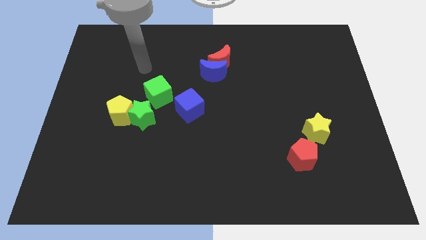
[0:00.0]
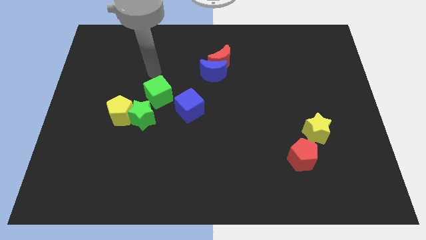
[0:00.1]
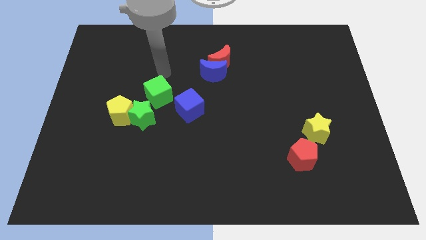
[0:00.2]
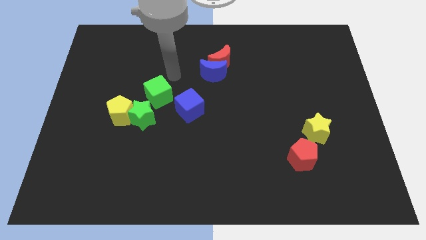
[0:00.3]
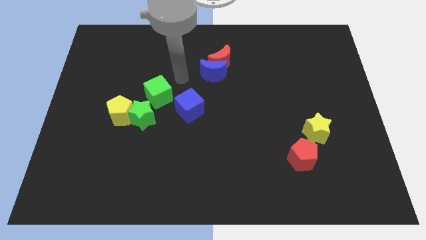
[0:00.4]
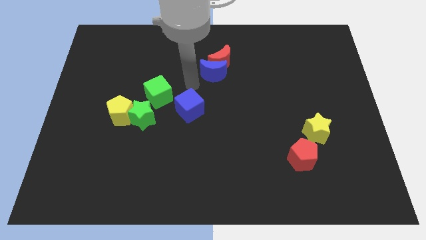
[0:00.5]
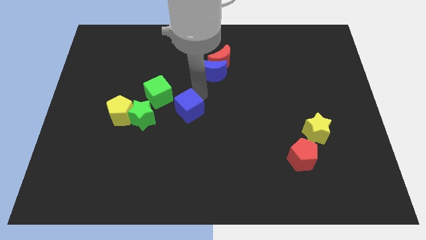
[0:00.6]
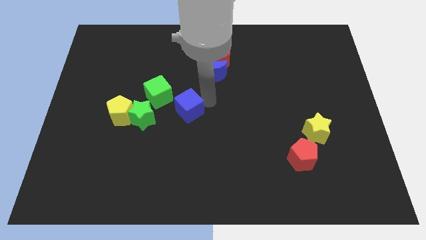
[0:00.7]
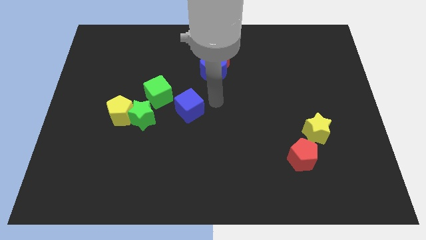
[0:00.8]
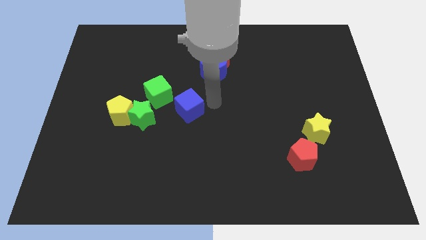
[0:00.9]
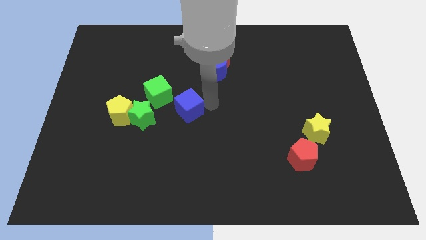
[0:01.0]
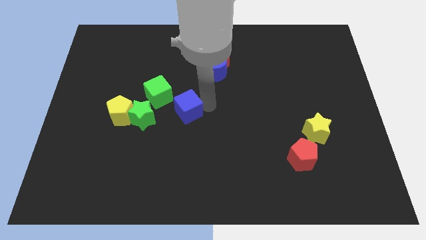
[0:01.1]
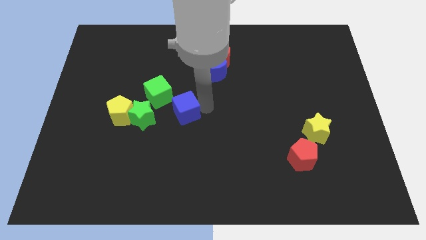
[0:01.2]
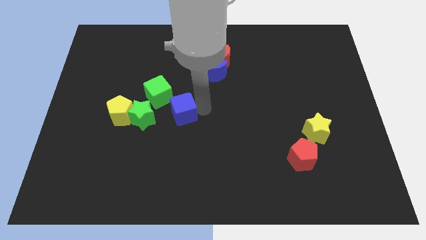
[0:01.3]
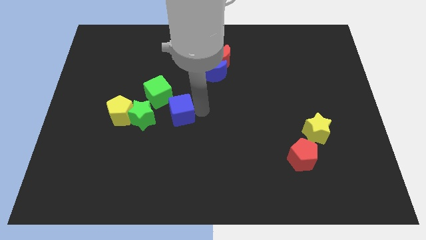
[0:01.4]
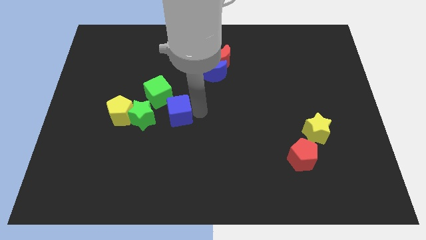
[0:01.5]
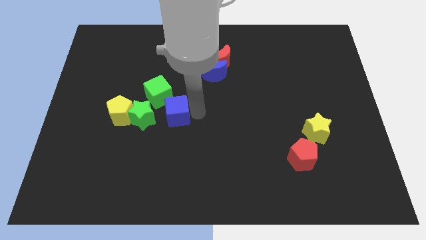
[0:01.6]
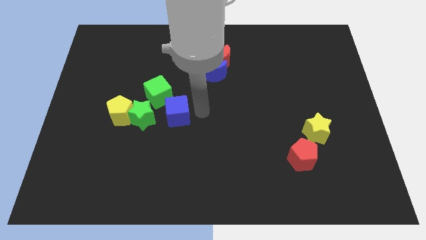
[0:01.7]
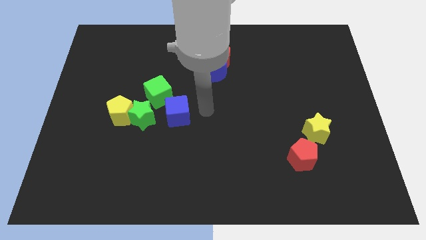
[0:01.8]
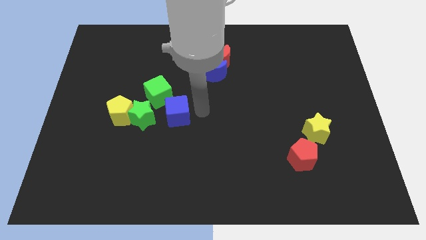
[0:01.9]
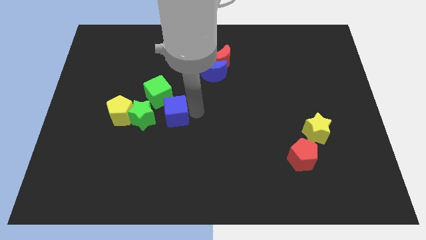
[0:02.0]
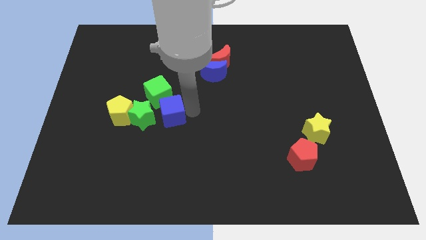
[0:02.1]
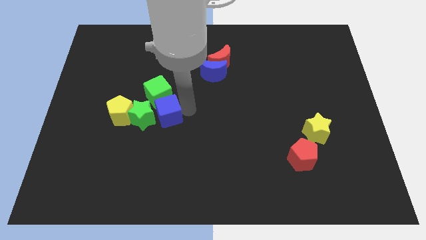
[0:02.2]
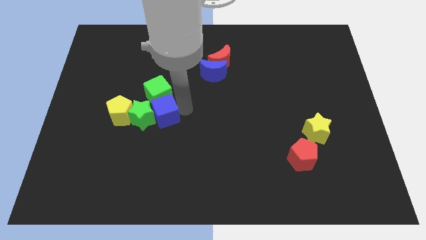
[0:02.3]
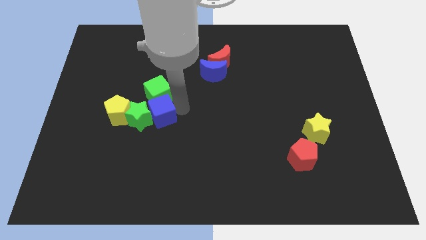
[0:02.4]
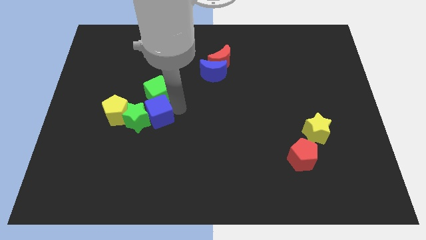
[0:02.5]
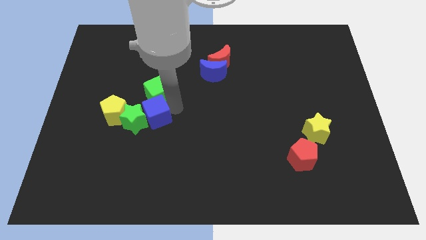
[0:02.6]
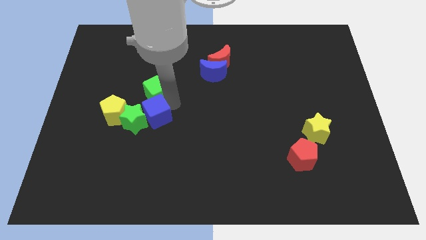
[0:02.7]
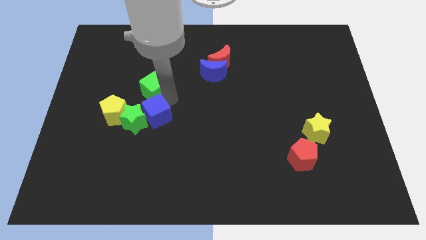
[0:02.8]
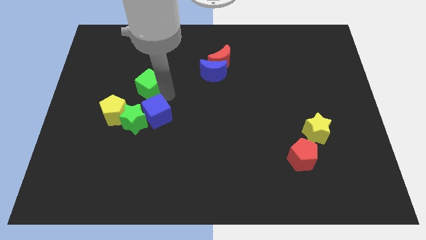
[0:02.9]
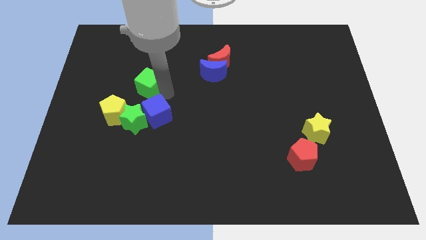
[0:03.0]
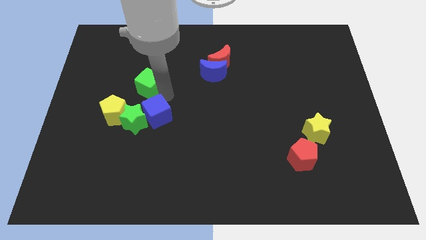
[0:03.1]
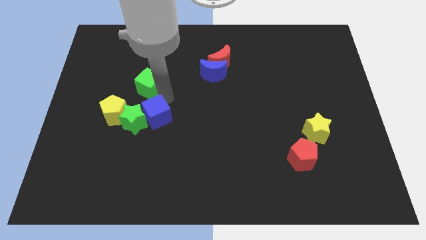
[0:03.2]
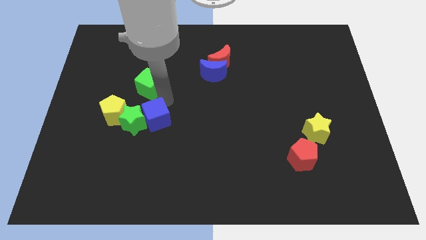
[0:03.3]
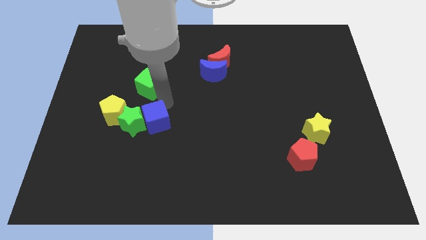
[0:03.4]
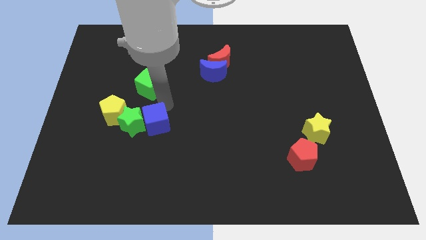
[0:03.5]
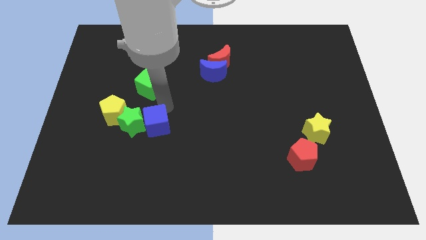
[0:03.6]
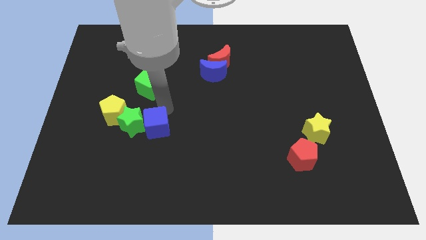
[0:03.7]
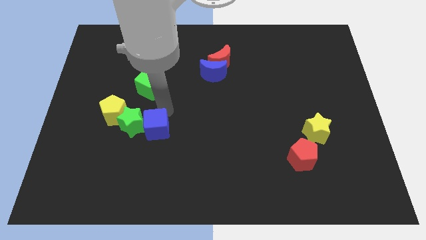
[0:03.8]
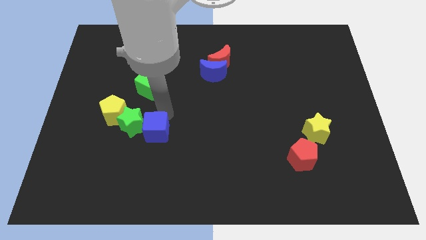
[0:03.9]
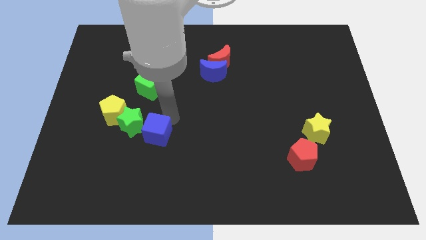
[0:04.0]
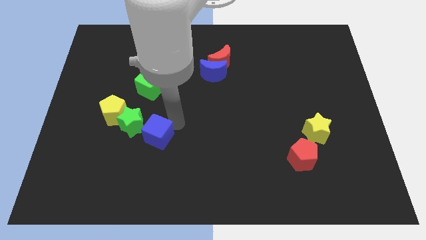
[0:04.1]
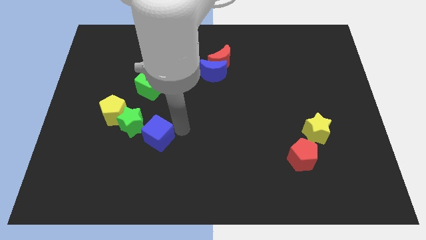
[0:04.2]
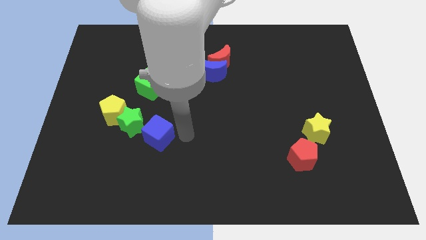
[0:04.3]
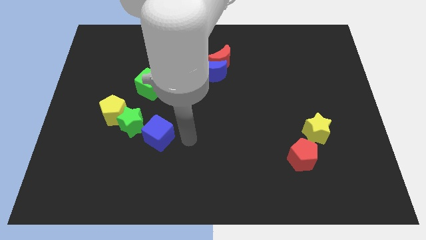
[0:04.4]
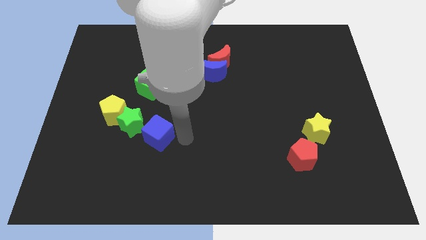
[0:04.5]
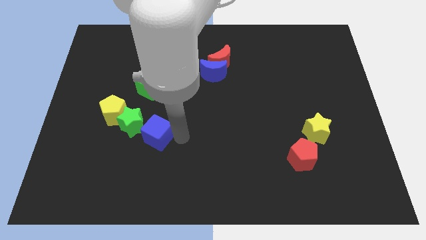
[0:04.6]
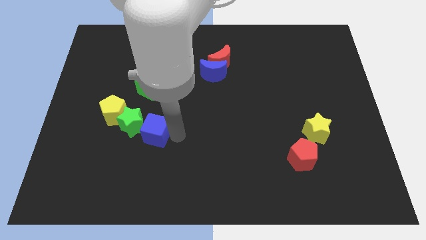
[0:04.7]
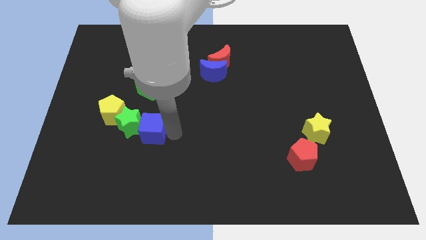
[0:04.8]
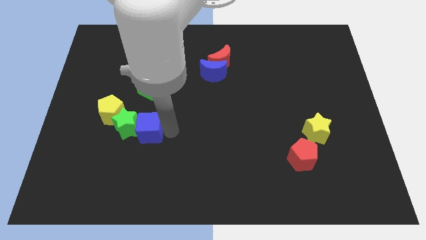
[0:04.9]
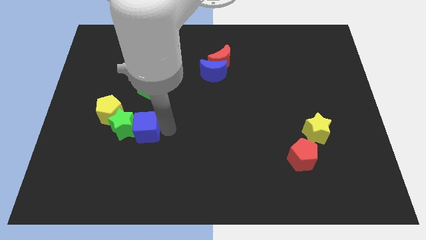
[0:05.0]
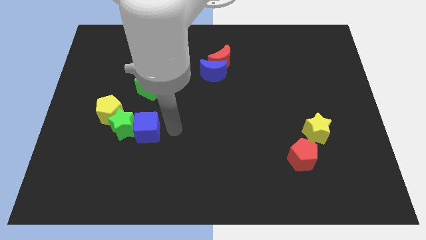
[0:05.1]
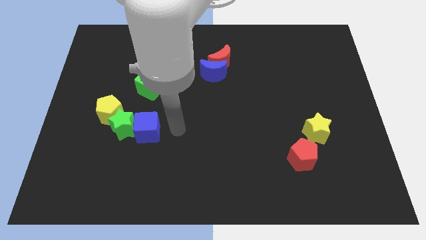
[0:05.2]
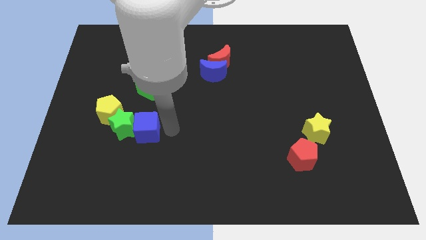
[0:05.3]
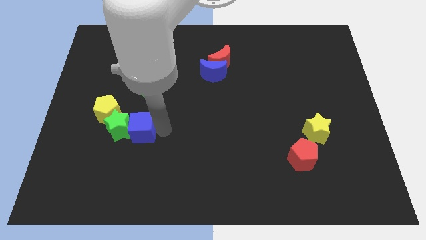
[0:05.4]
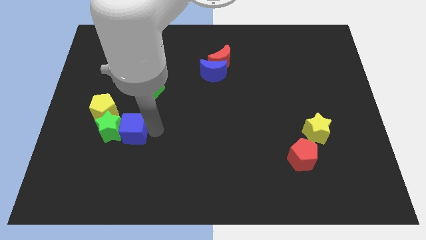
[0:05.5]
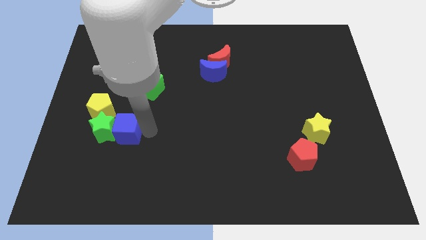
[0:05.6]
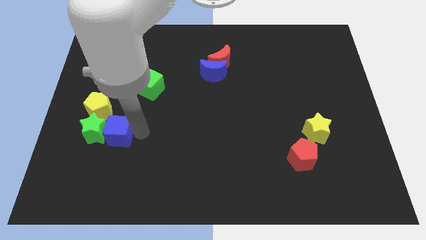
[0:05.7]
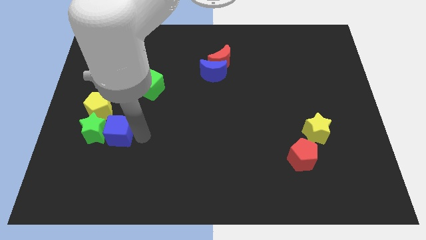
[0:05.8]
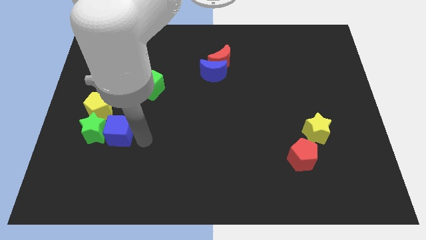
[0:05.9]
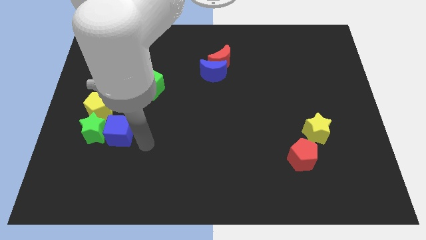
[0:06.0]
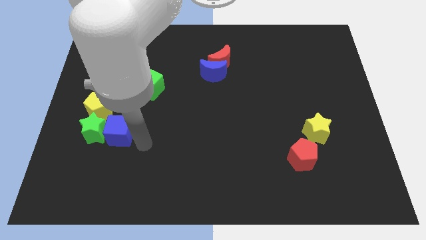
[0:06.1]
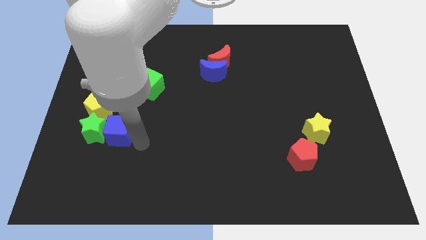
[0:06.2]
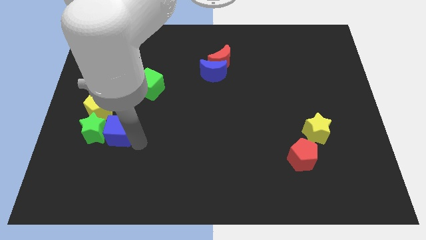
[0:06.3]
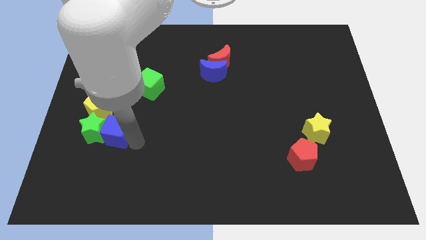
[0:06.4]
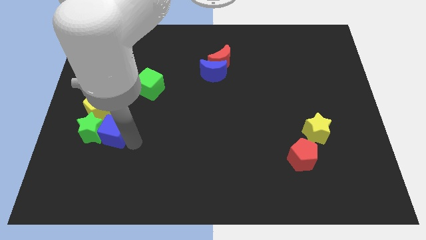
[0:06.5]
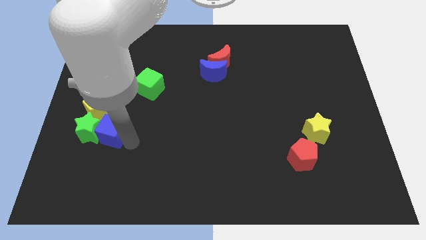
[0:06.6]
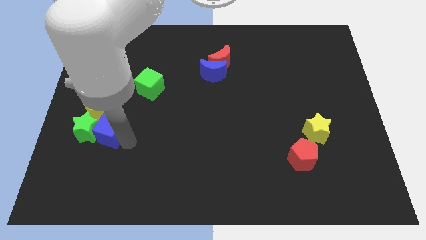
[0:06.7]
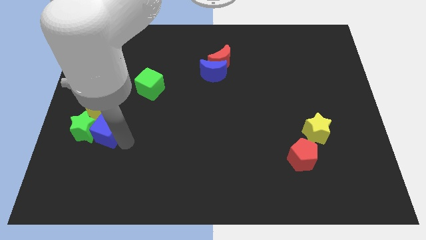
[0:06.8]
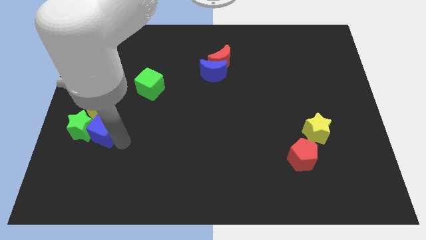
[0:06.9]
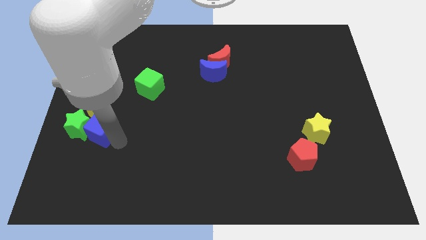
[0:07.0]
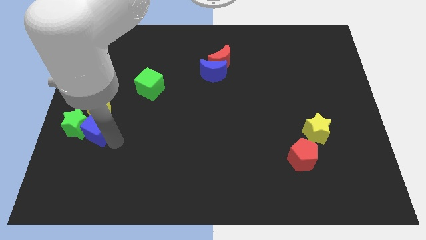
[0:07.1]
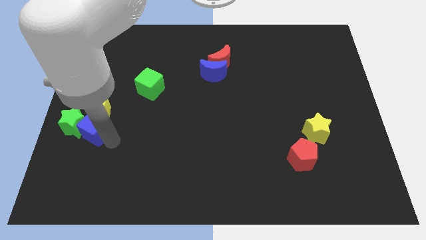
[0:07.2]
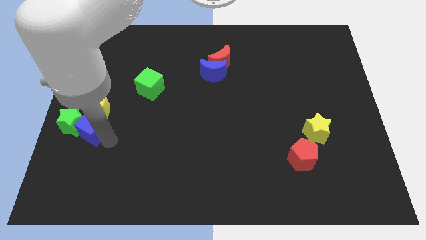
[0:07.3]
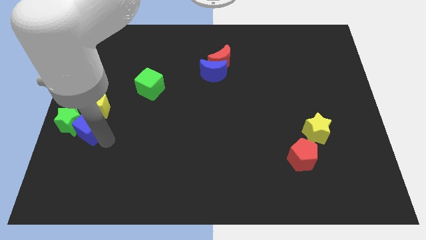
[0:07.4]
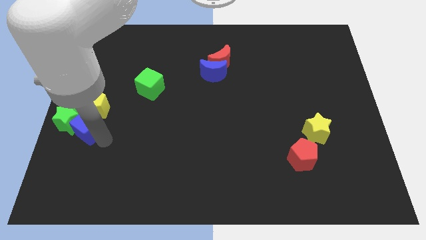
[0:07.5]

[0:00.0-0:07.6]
put the blue cube to the left side
